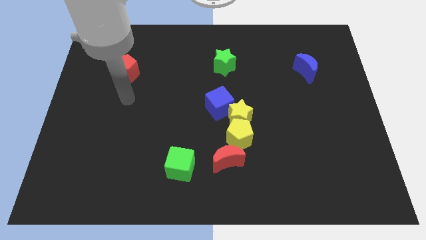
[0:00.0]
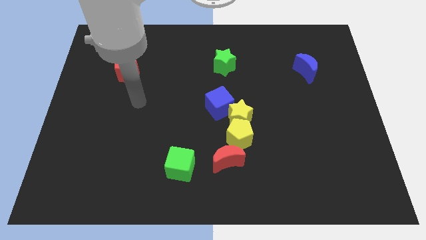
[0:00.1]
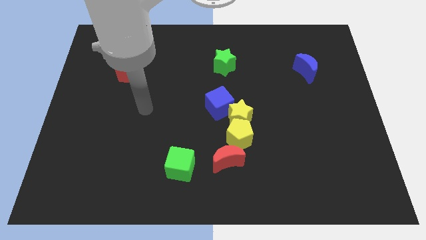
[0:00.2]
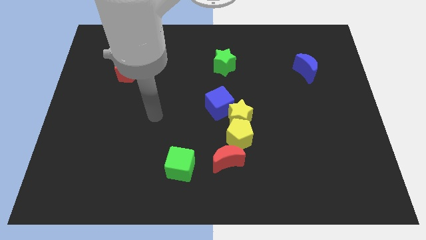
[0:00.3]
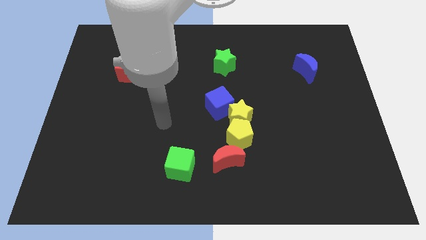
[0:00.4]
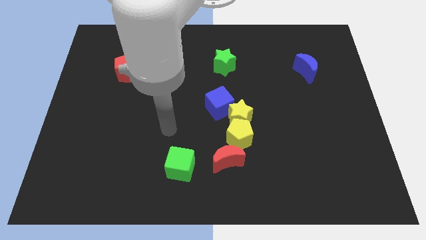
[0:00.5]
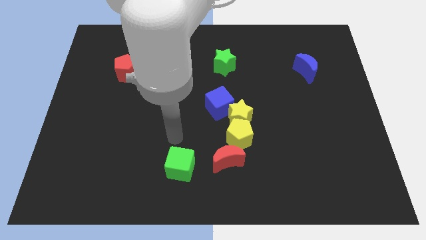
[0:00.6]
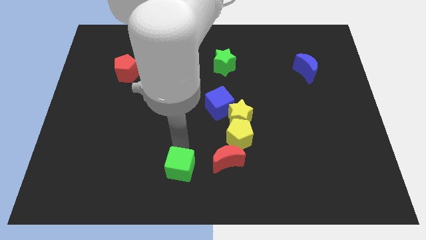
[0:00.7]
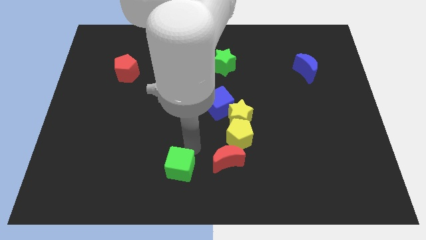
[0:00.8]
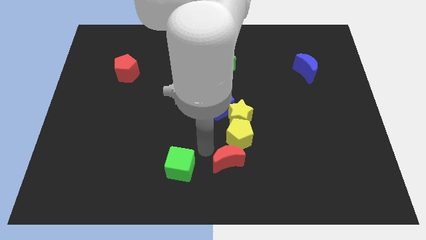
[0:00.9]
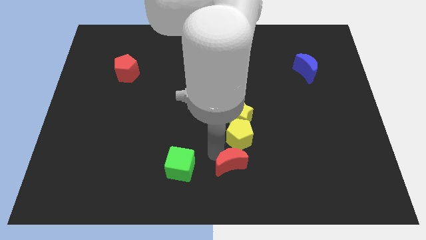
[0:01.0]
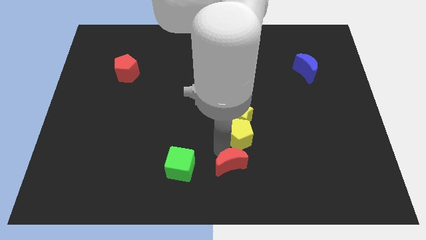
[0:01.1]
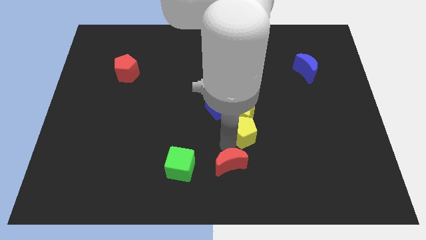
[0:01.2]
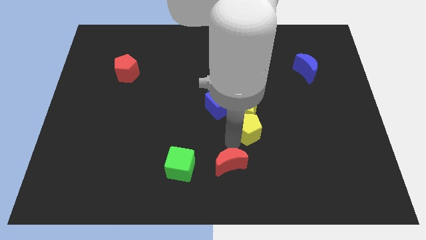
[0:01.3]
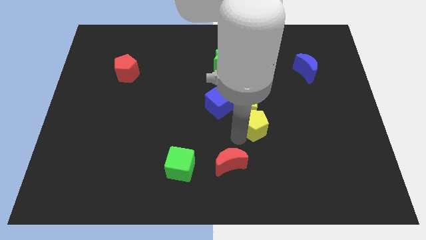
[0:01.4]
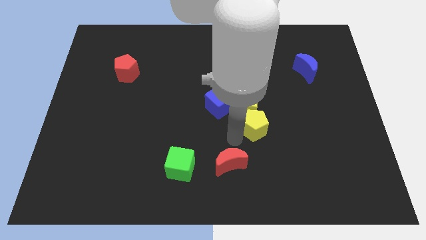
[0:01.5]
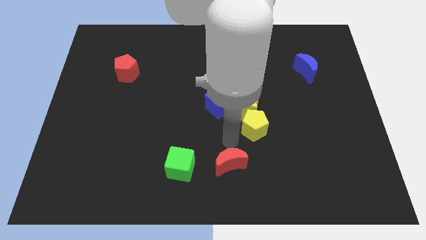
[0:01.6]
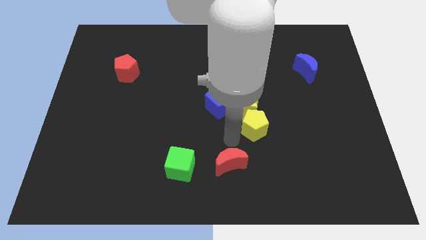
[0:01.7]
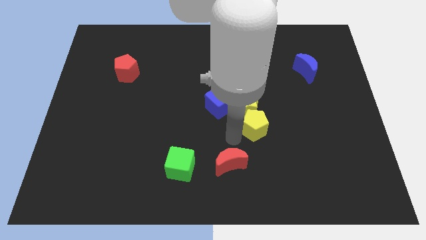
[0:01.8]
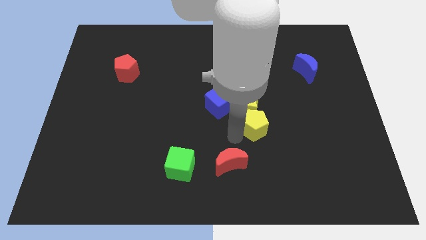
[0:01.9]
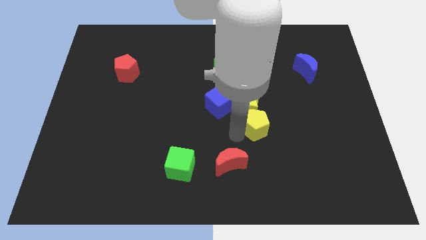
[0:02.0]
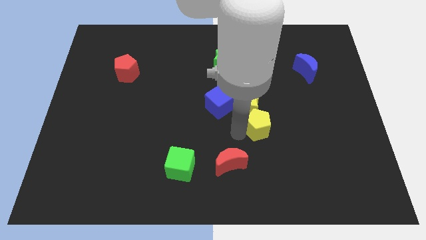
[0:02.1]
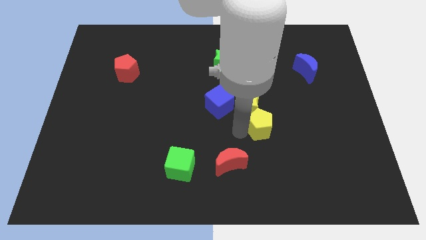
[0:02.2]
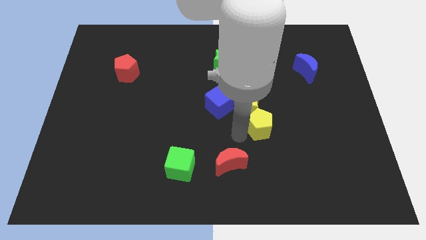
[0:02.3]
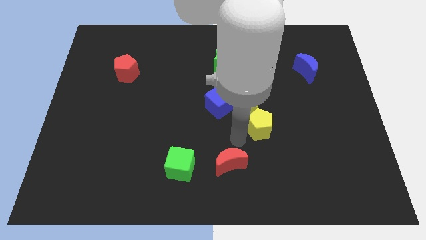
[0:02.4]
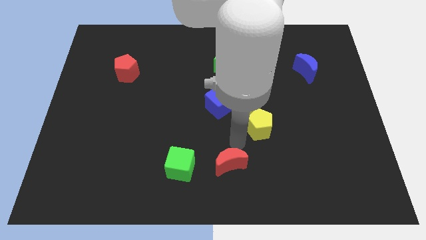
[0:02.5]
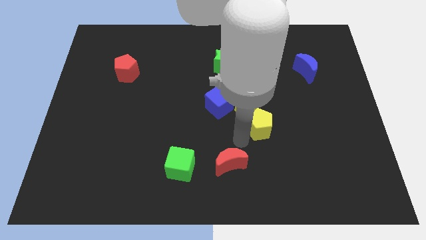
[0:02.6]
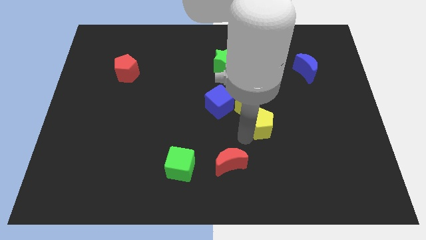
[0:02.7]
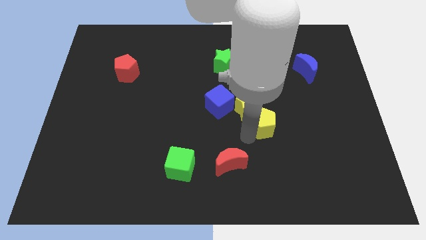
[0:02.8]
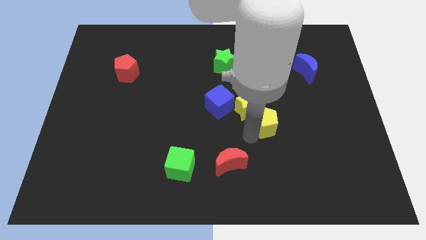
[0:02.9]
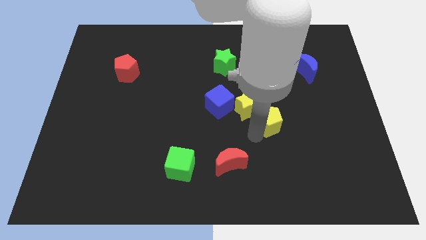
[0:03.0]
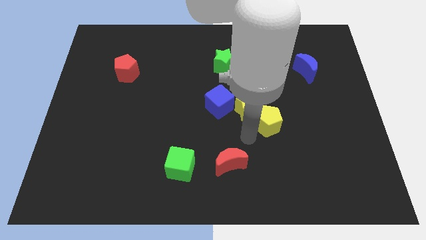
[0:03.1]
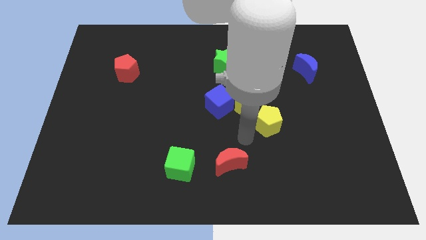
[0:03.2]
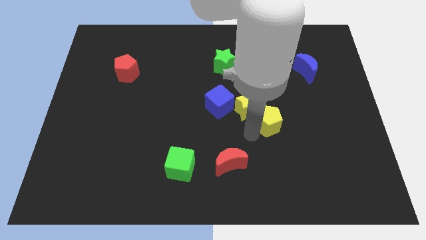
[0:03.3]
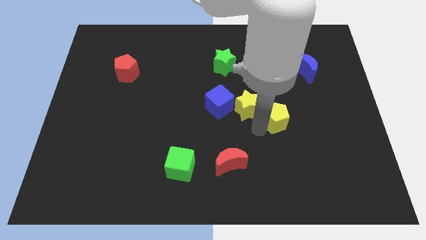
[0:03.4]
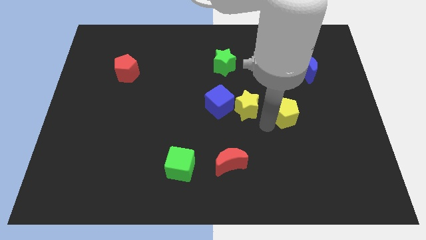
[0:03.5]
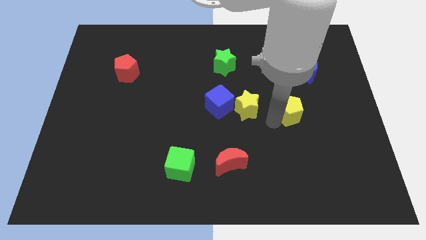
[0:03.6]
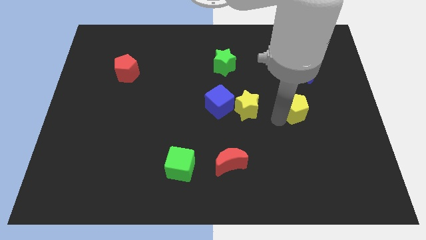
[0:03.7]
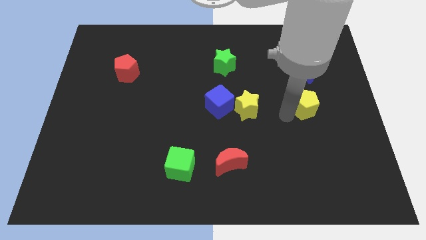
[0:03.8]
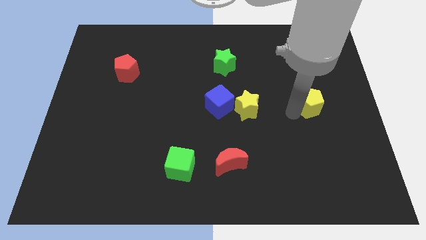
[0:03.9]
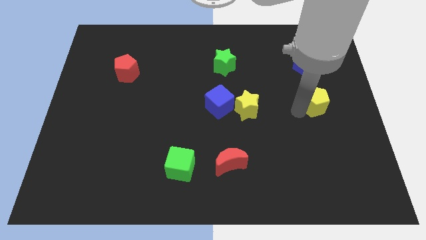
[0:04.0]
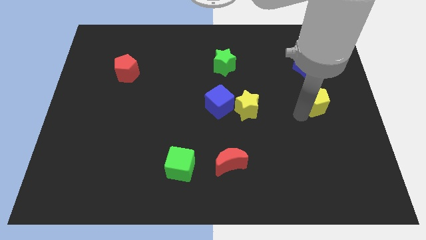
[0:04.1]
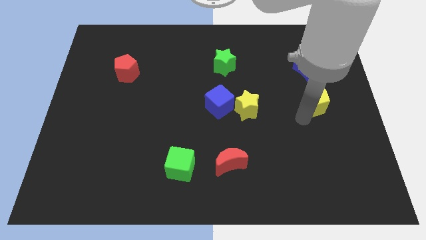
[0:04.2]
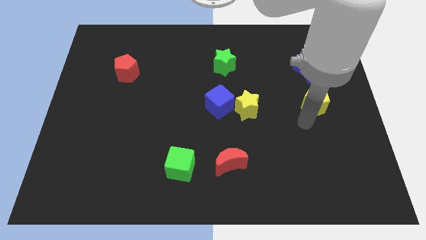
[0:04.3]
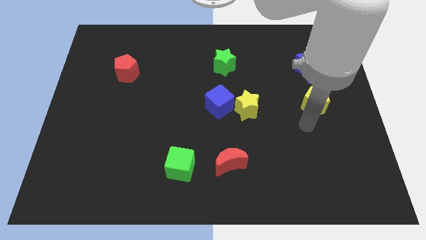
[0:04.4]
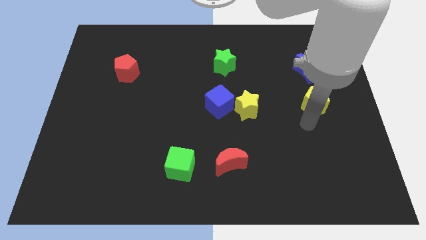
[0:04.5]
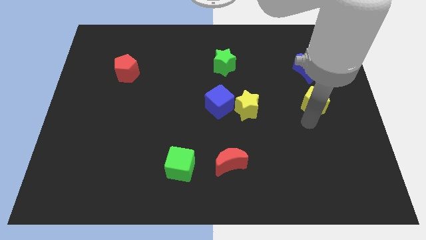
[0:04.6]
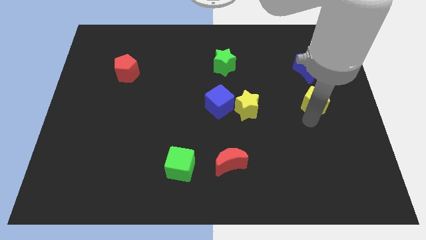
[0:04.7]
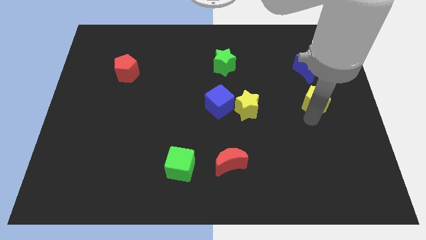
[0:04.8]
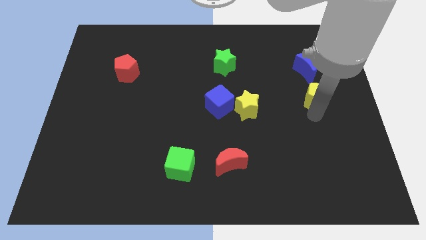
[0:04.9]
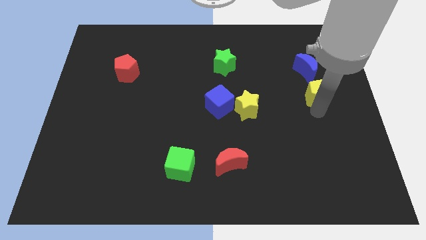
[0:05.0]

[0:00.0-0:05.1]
slide the yellow pentagon up and then right

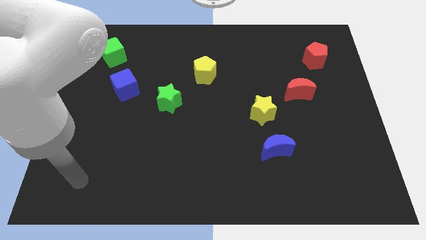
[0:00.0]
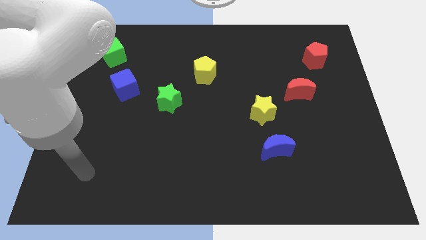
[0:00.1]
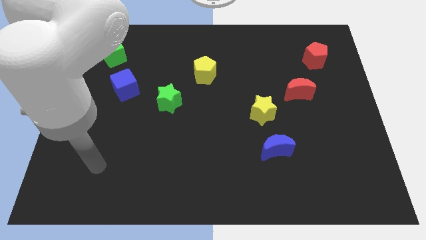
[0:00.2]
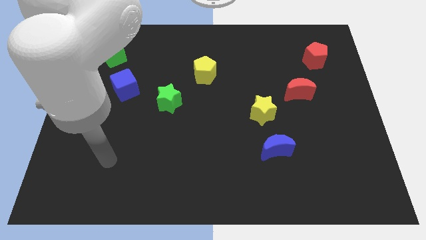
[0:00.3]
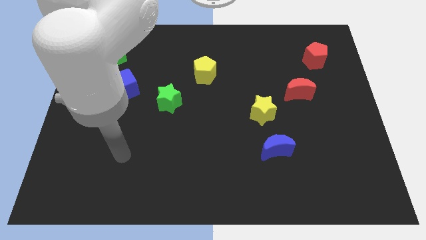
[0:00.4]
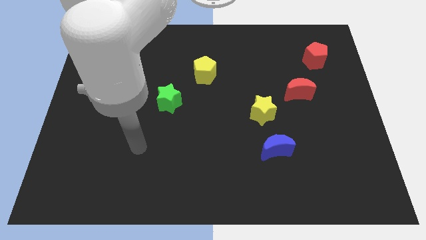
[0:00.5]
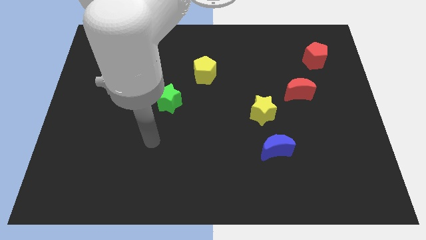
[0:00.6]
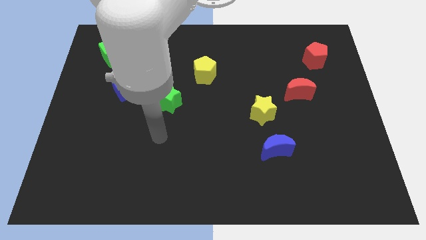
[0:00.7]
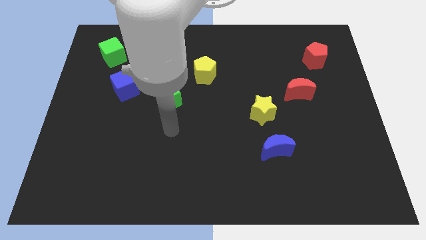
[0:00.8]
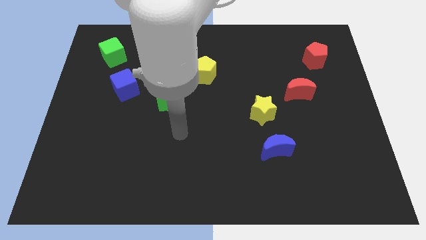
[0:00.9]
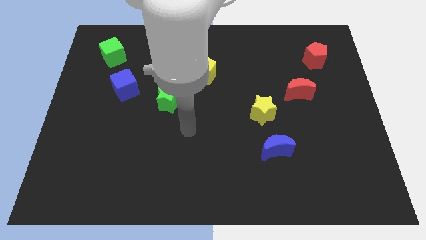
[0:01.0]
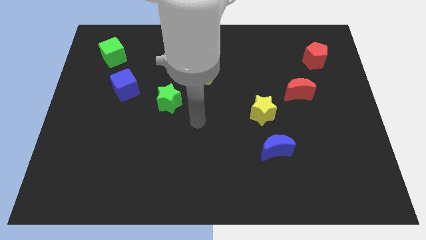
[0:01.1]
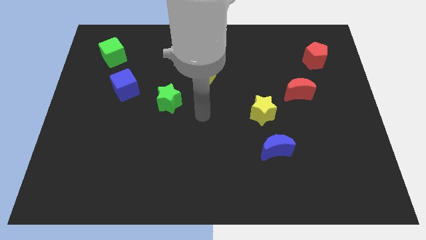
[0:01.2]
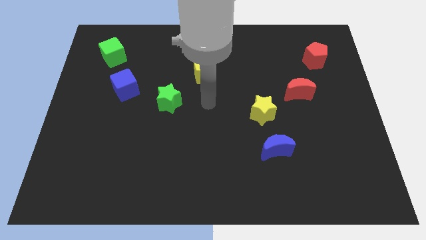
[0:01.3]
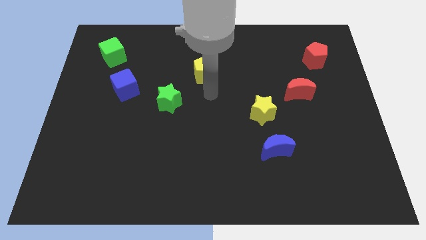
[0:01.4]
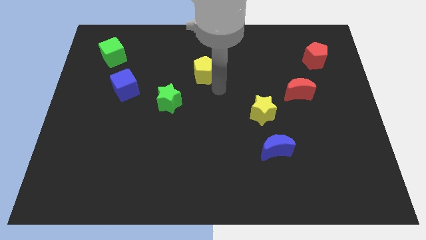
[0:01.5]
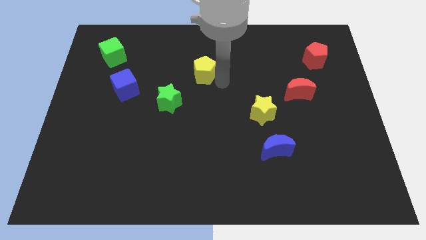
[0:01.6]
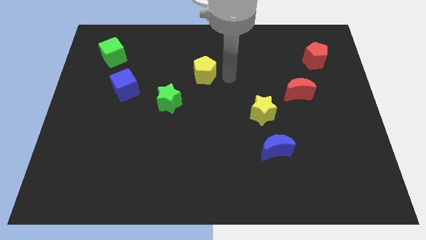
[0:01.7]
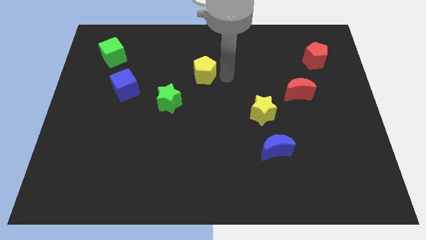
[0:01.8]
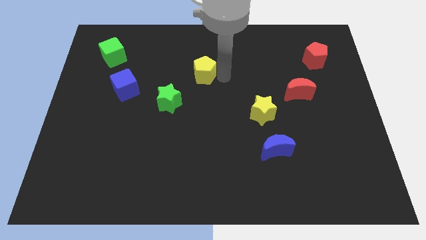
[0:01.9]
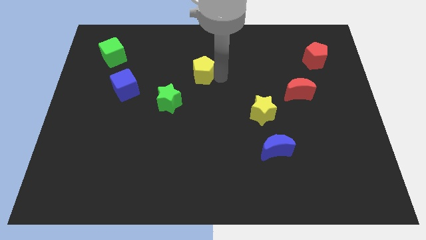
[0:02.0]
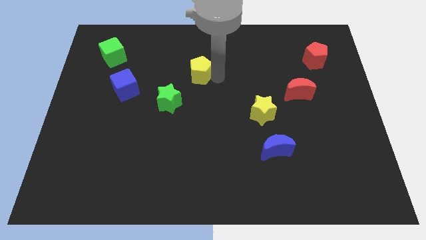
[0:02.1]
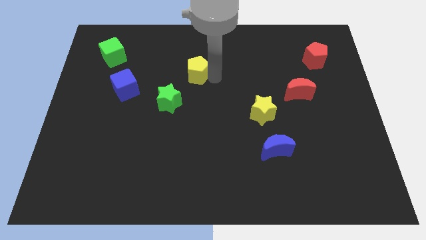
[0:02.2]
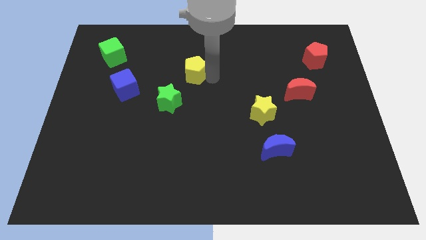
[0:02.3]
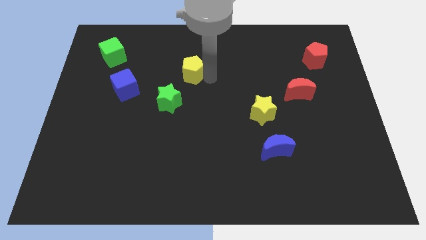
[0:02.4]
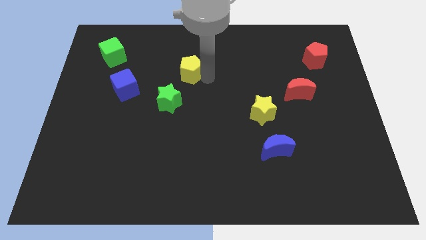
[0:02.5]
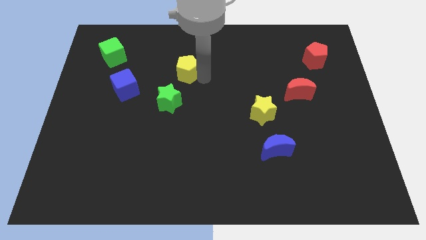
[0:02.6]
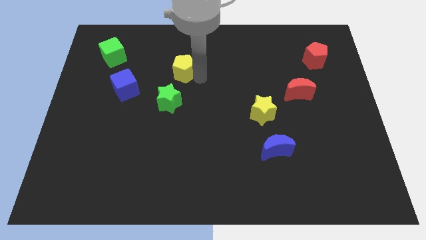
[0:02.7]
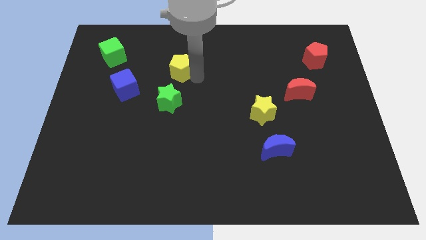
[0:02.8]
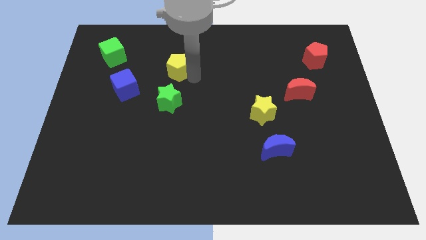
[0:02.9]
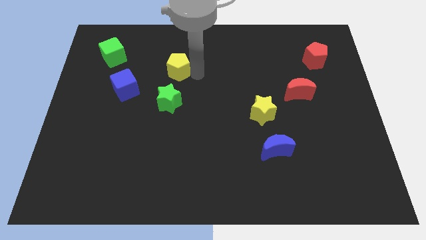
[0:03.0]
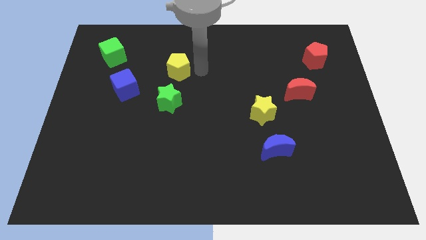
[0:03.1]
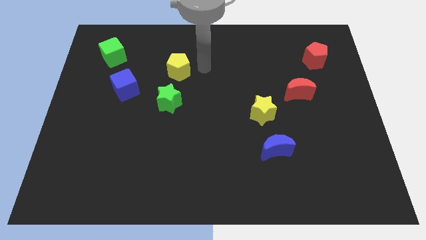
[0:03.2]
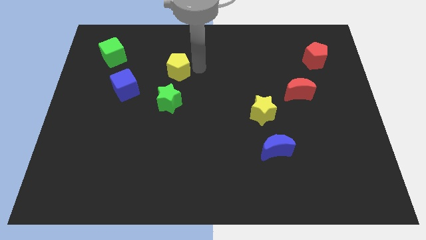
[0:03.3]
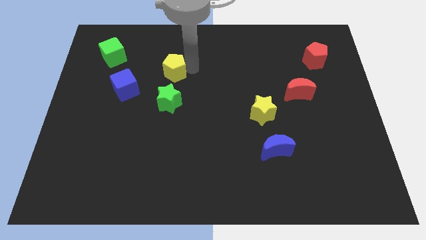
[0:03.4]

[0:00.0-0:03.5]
move the yellow pentagon a little bit left
